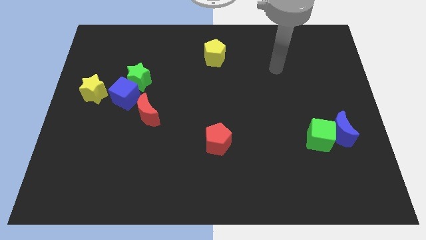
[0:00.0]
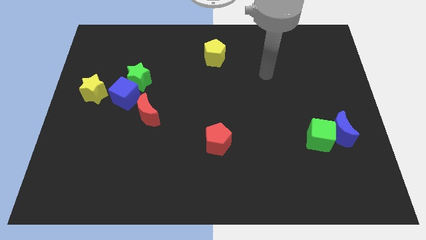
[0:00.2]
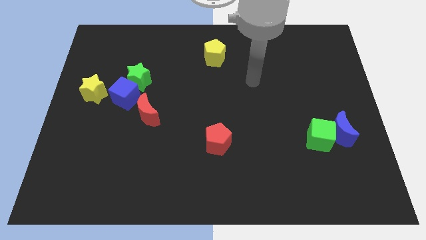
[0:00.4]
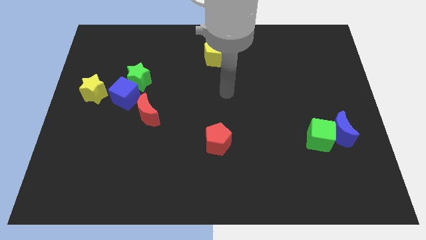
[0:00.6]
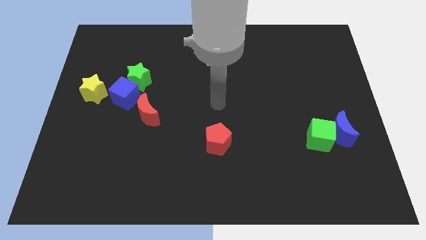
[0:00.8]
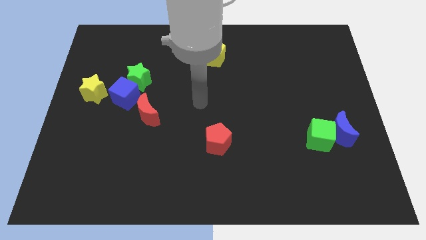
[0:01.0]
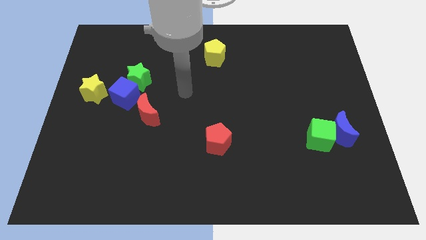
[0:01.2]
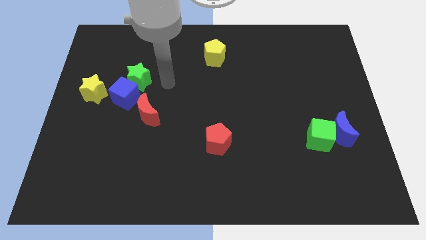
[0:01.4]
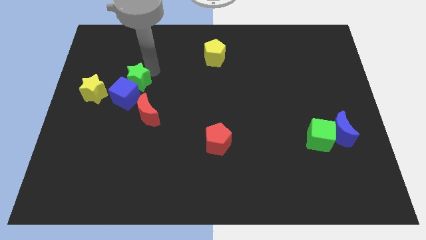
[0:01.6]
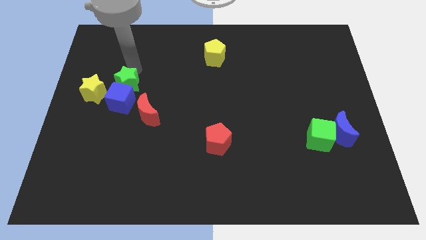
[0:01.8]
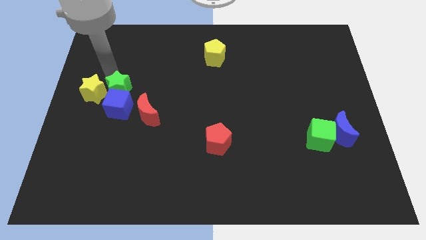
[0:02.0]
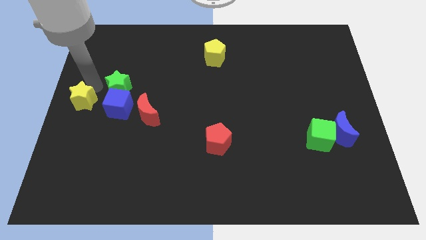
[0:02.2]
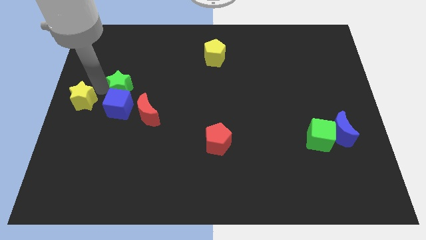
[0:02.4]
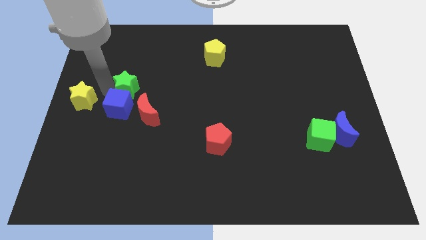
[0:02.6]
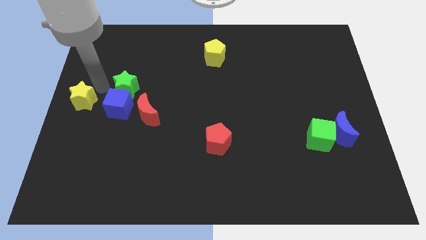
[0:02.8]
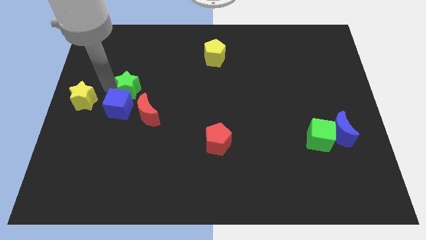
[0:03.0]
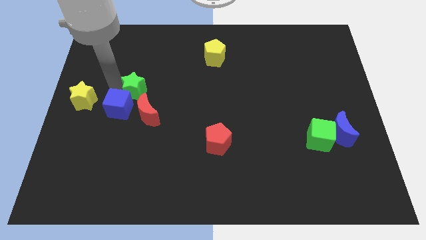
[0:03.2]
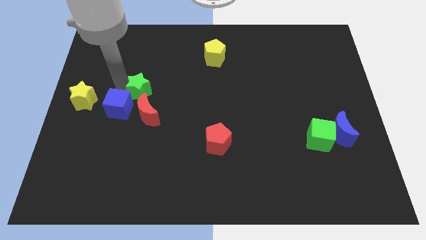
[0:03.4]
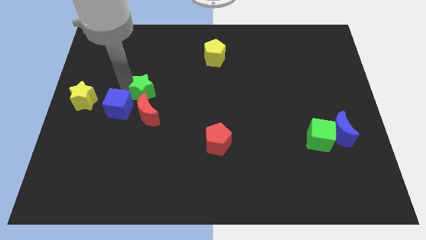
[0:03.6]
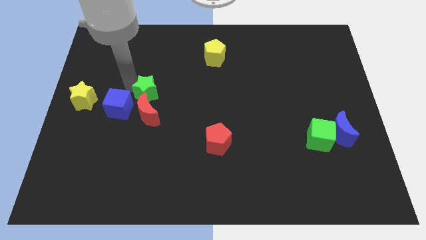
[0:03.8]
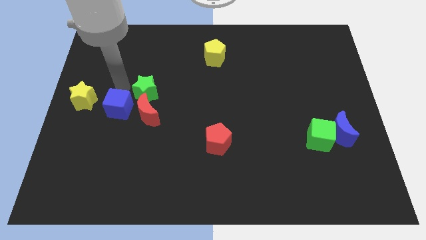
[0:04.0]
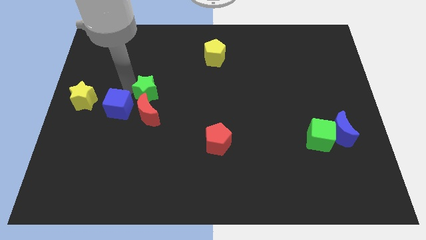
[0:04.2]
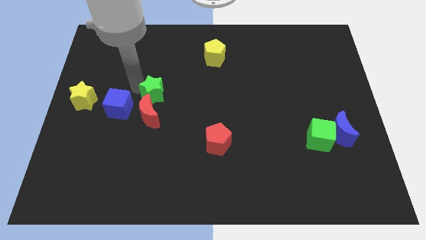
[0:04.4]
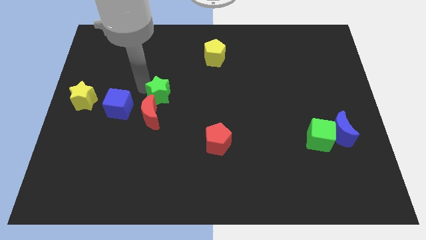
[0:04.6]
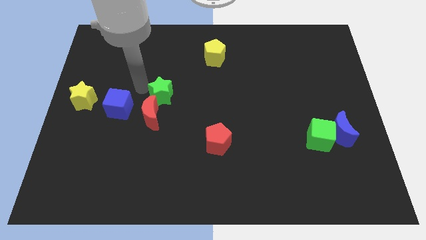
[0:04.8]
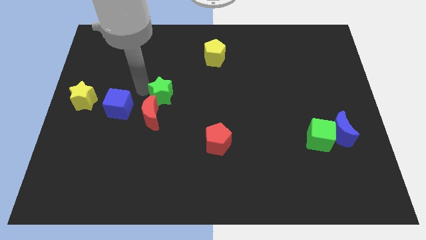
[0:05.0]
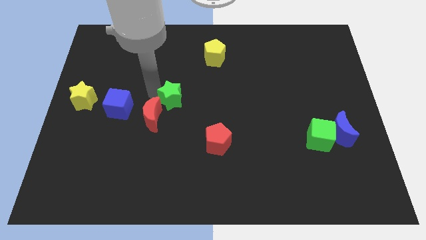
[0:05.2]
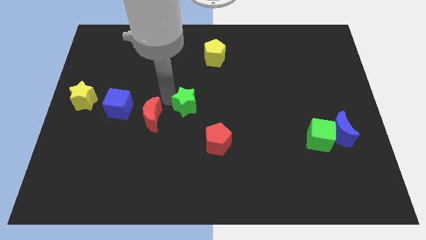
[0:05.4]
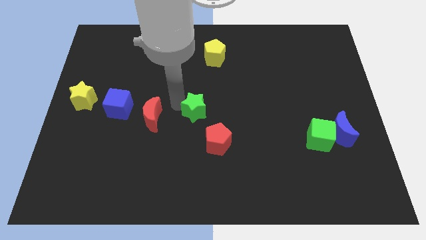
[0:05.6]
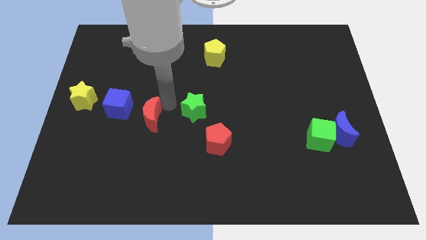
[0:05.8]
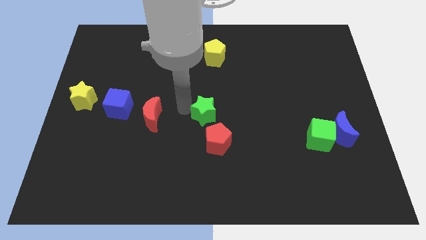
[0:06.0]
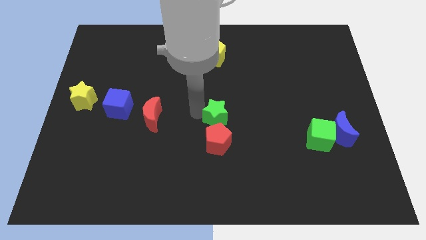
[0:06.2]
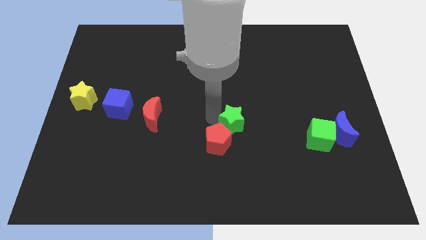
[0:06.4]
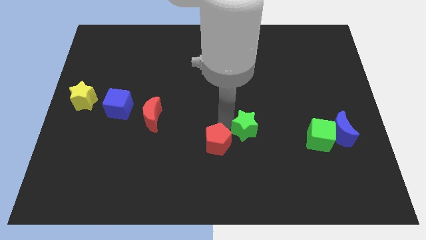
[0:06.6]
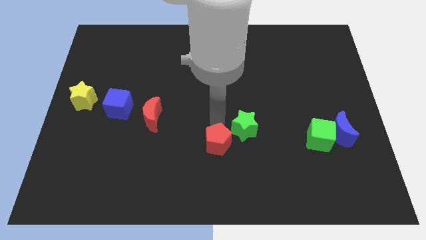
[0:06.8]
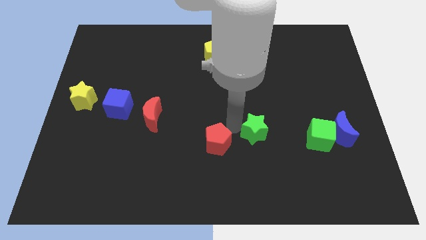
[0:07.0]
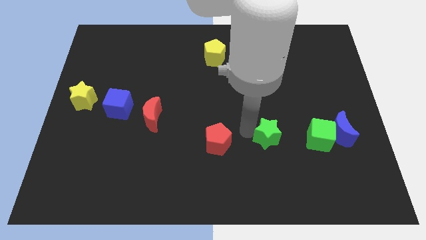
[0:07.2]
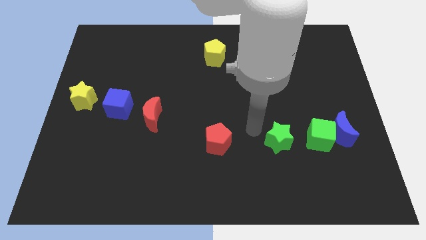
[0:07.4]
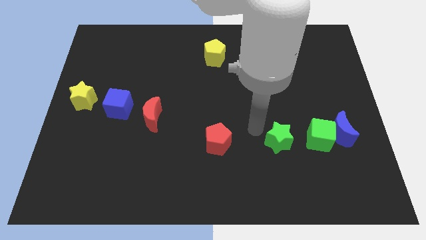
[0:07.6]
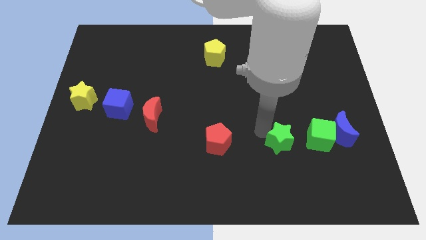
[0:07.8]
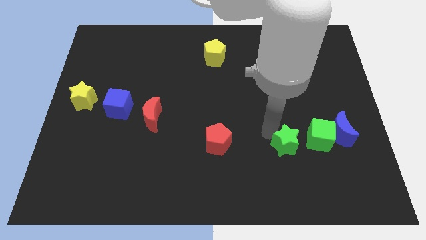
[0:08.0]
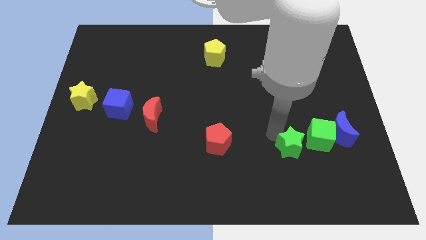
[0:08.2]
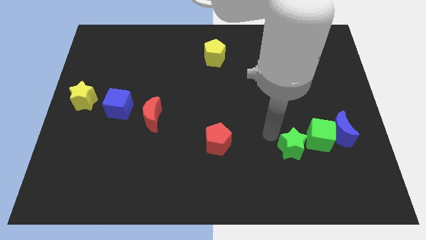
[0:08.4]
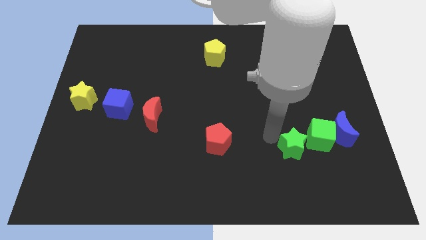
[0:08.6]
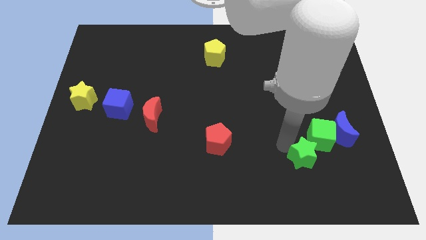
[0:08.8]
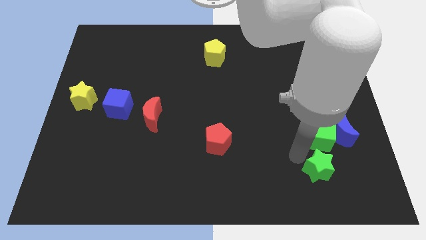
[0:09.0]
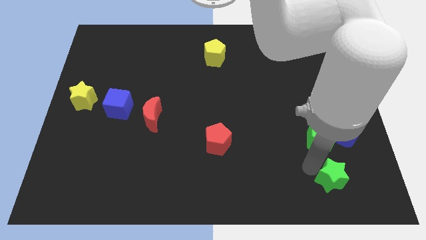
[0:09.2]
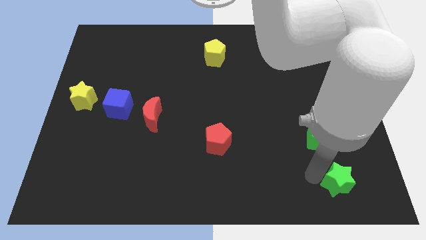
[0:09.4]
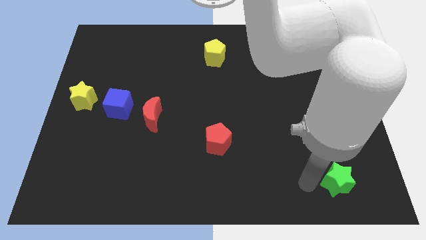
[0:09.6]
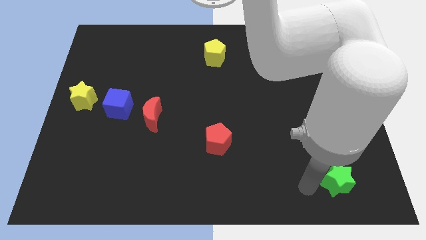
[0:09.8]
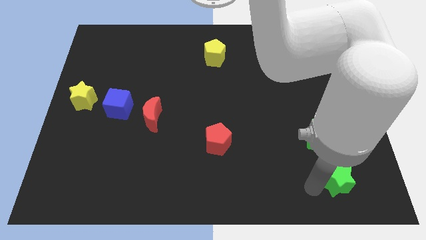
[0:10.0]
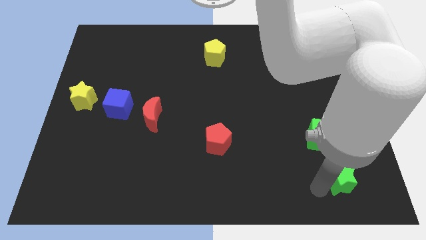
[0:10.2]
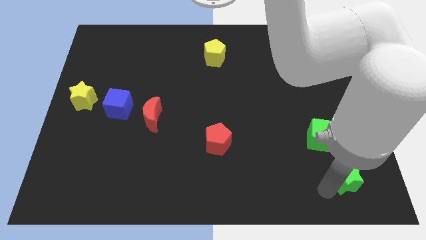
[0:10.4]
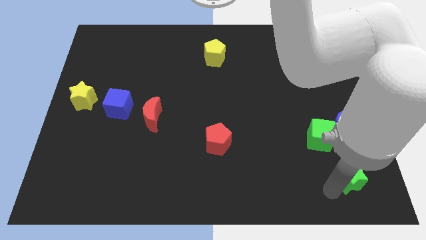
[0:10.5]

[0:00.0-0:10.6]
slide the green star to the bottom right of the board
